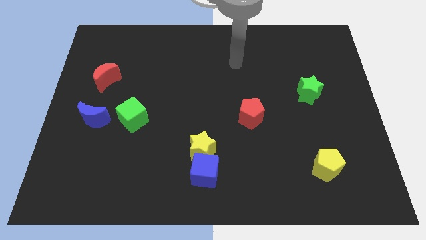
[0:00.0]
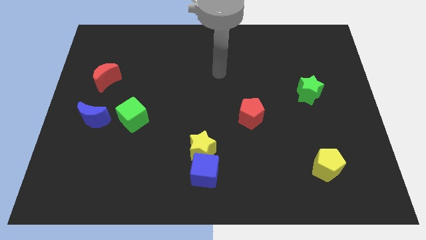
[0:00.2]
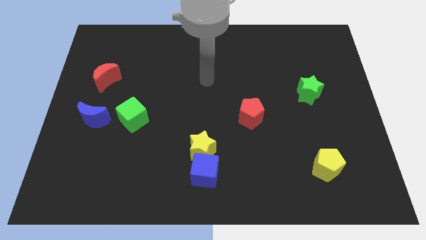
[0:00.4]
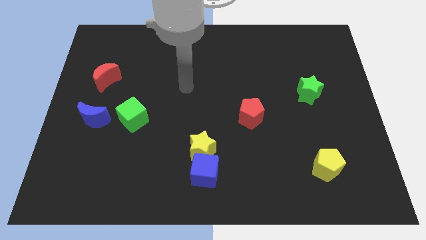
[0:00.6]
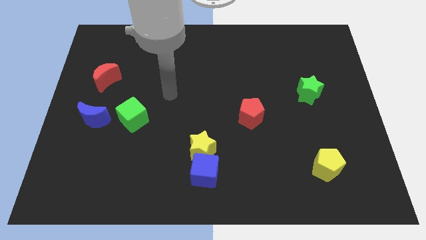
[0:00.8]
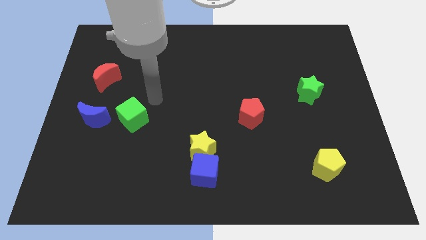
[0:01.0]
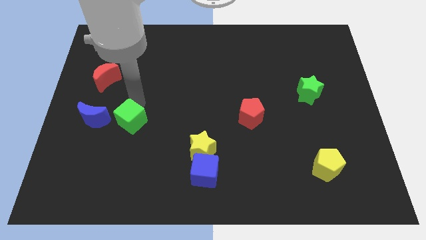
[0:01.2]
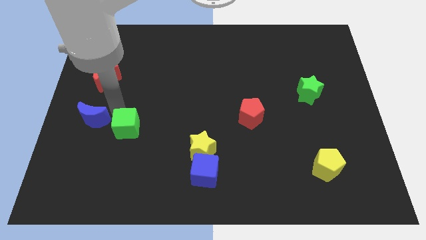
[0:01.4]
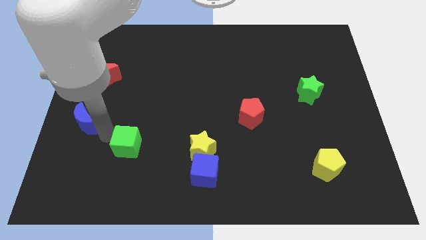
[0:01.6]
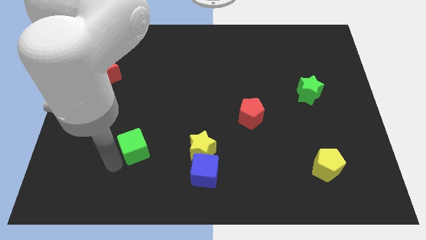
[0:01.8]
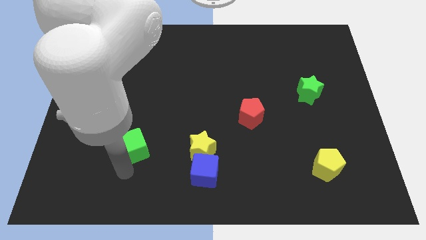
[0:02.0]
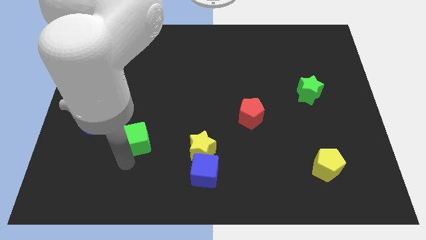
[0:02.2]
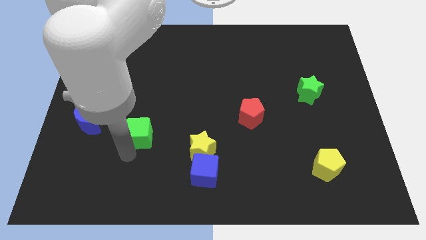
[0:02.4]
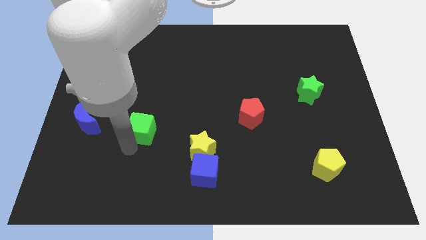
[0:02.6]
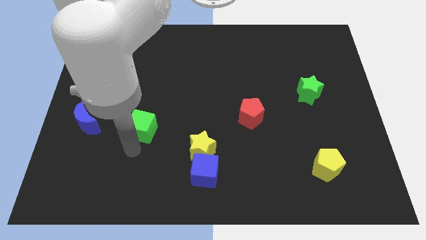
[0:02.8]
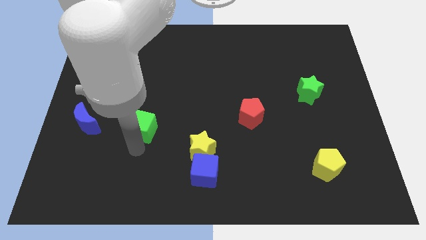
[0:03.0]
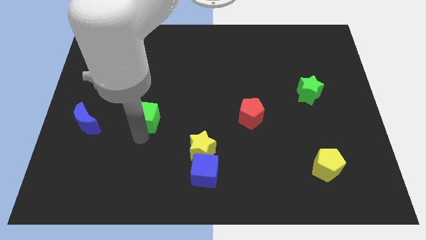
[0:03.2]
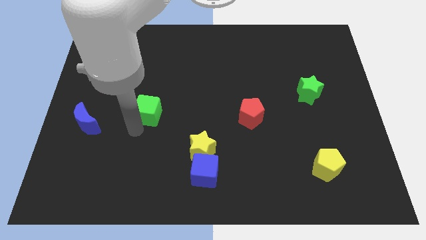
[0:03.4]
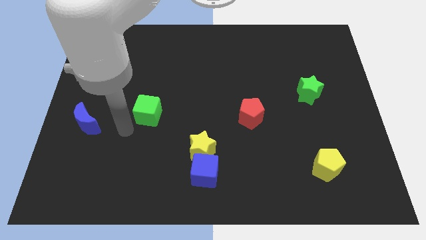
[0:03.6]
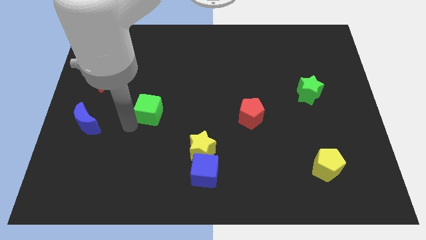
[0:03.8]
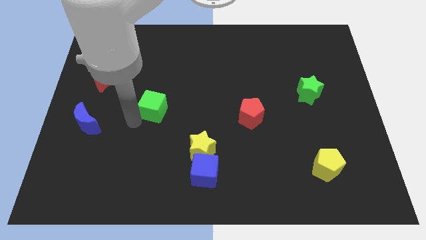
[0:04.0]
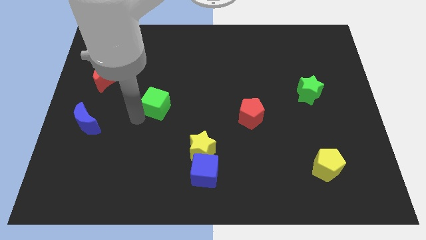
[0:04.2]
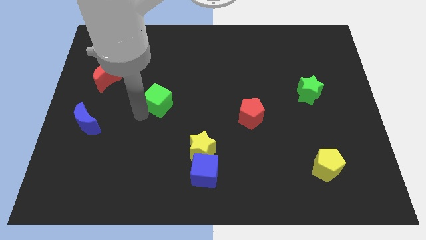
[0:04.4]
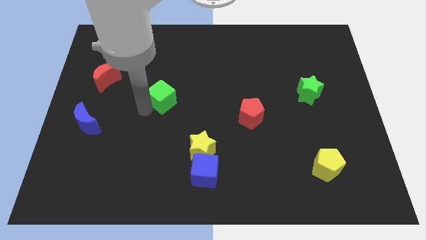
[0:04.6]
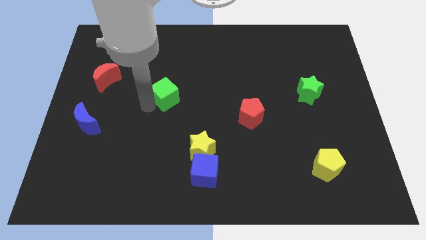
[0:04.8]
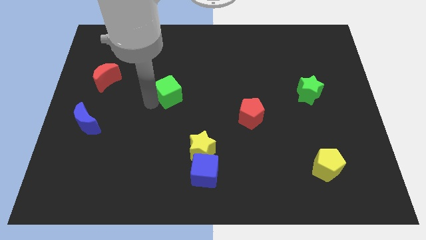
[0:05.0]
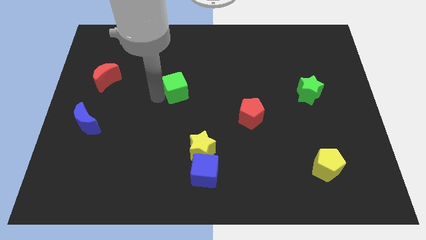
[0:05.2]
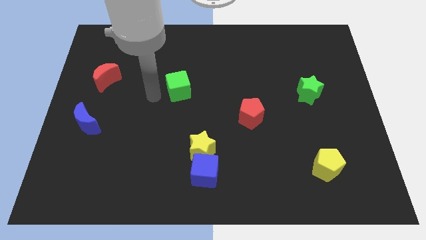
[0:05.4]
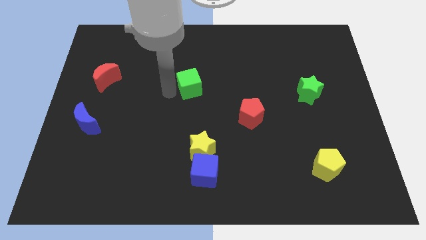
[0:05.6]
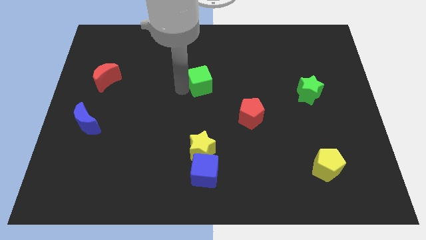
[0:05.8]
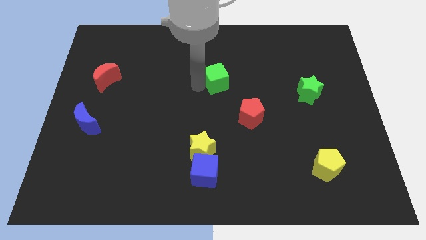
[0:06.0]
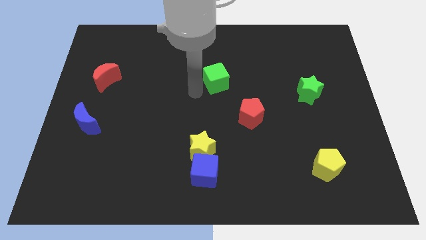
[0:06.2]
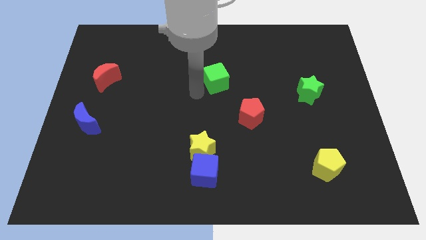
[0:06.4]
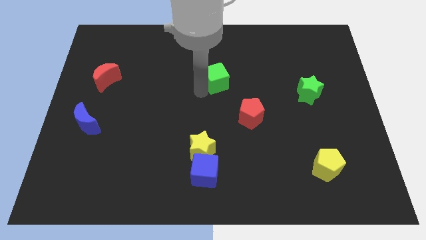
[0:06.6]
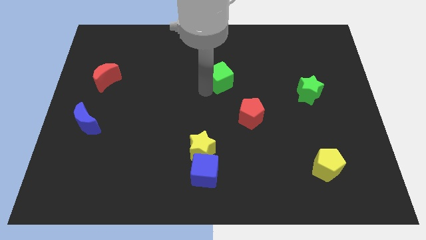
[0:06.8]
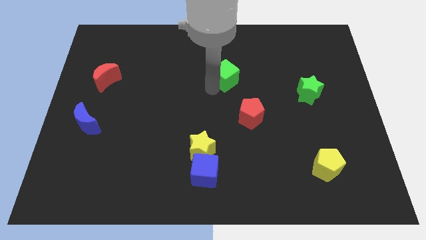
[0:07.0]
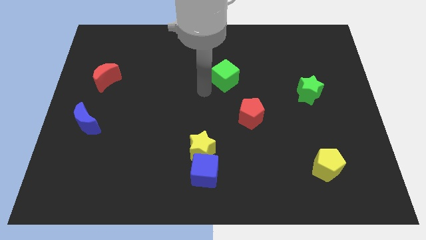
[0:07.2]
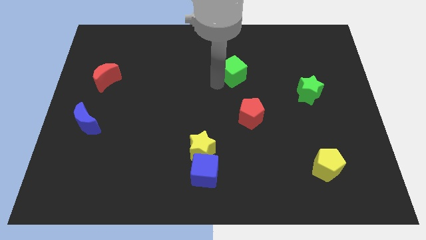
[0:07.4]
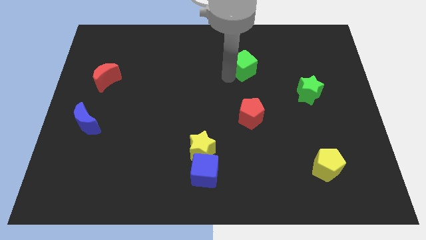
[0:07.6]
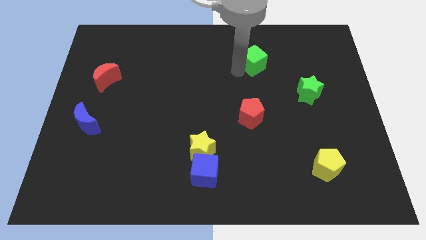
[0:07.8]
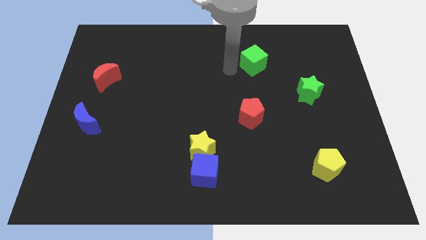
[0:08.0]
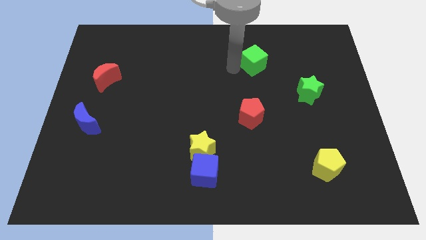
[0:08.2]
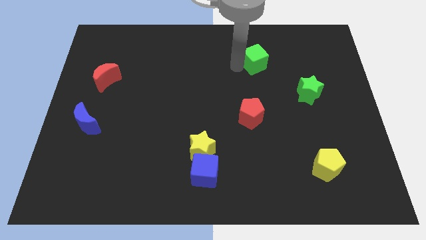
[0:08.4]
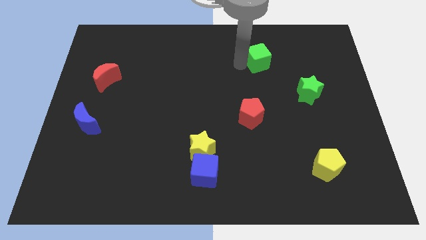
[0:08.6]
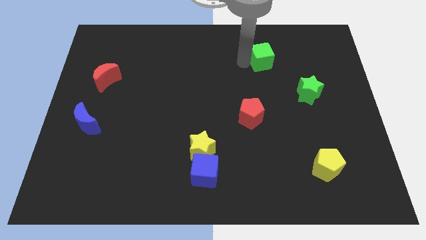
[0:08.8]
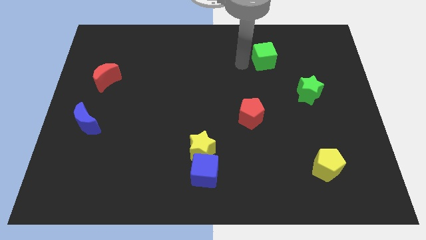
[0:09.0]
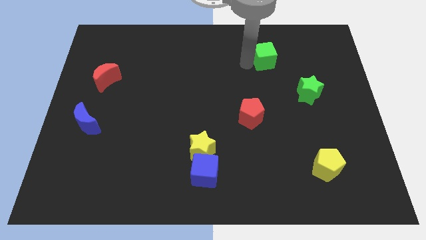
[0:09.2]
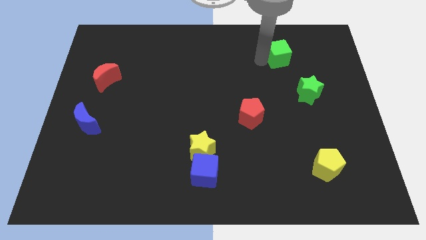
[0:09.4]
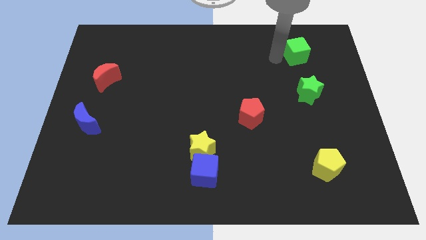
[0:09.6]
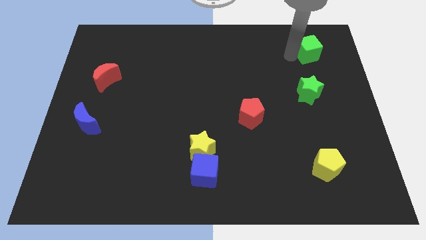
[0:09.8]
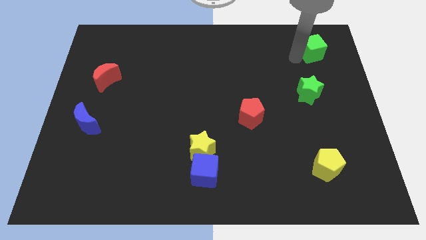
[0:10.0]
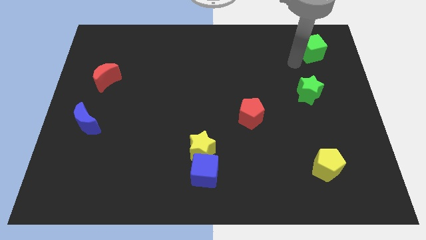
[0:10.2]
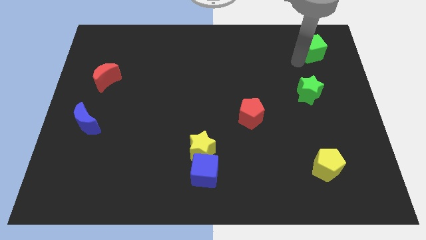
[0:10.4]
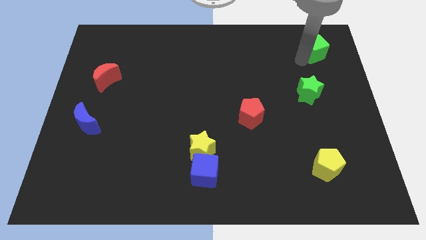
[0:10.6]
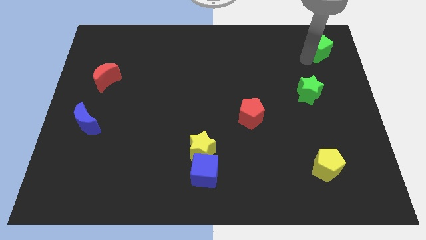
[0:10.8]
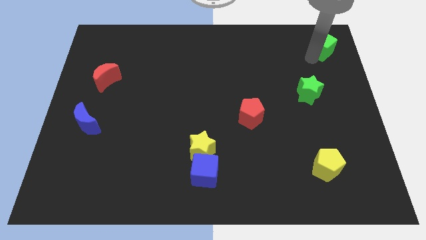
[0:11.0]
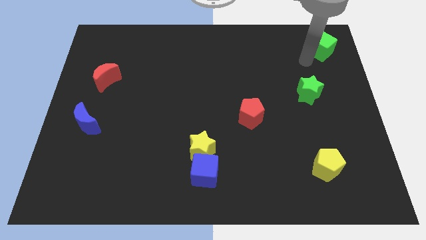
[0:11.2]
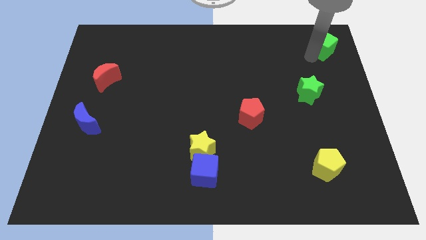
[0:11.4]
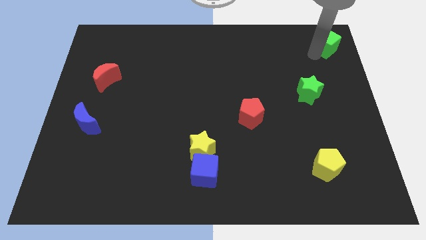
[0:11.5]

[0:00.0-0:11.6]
slide the green cube to the top right corner

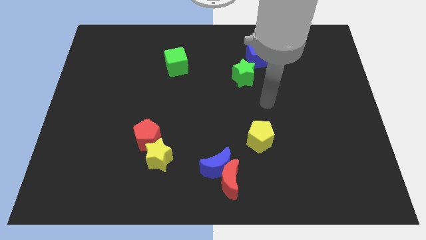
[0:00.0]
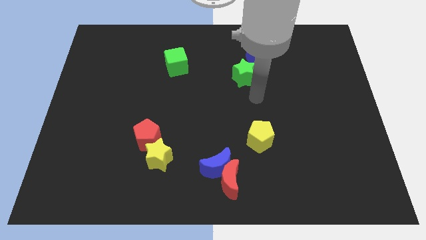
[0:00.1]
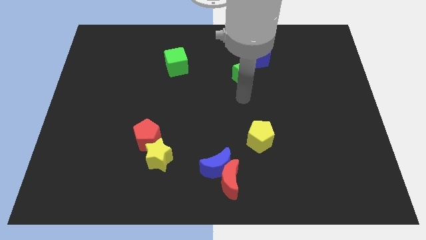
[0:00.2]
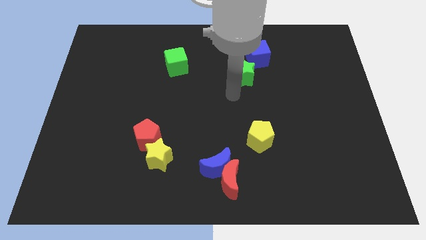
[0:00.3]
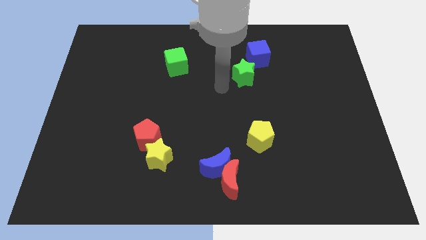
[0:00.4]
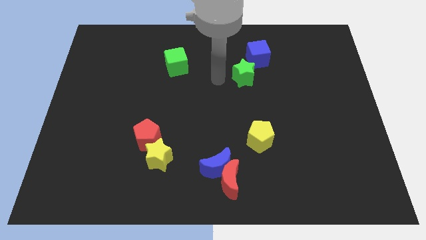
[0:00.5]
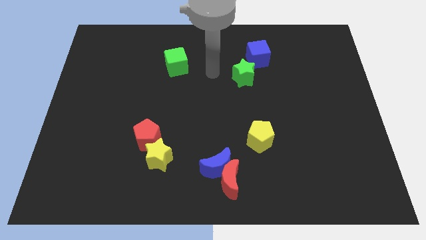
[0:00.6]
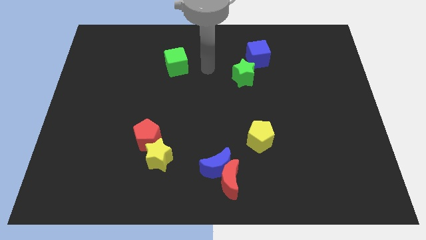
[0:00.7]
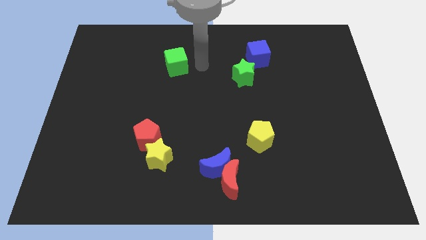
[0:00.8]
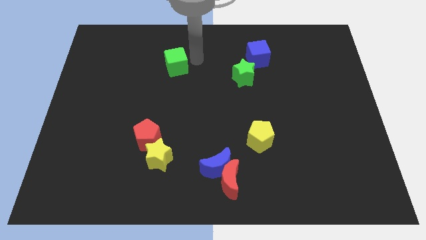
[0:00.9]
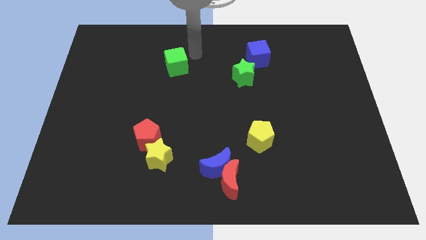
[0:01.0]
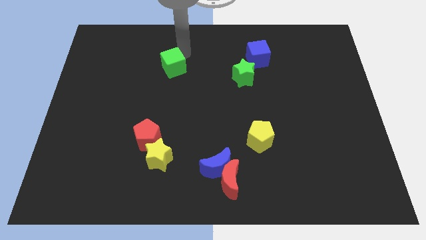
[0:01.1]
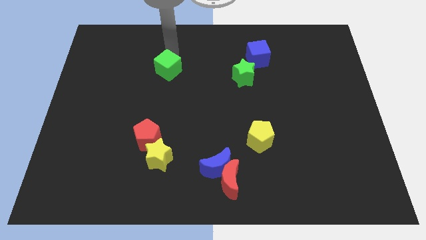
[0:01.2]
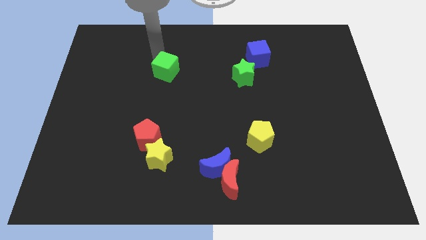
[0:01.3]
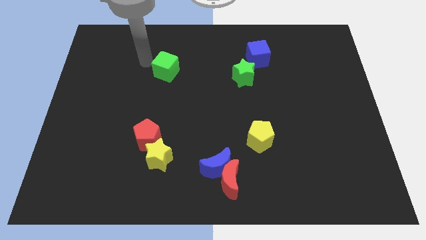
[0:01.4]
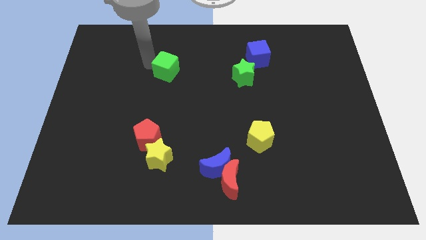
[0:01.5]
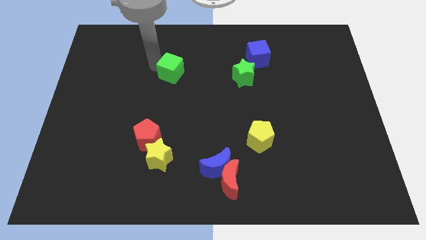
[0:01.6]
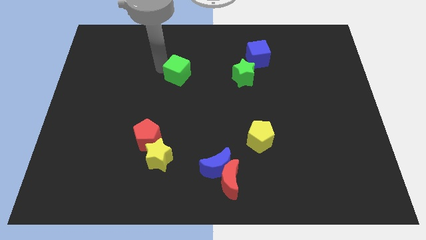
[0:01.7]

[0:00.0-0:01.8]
put the green cube to the center of the board
